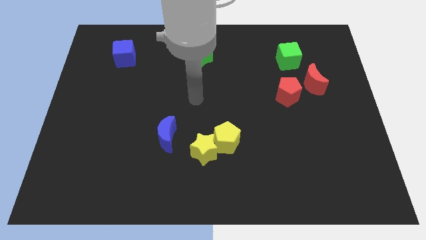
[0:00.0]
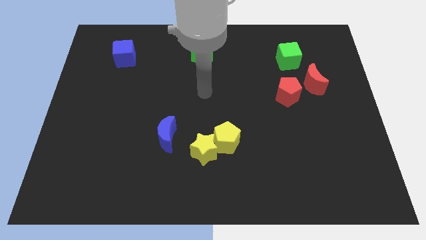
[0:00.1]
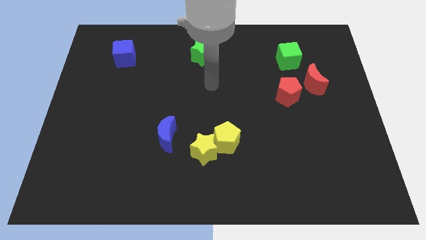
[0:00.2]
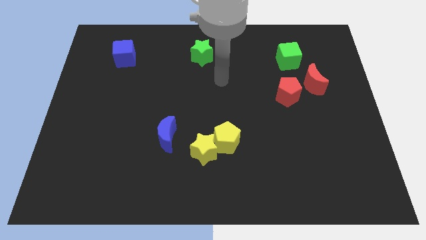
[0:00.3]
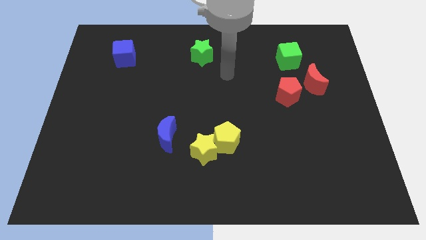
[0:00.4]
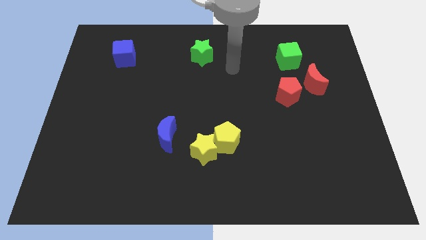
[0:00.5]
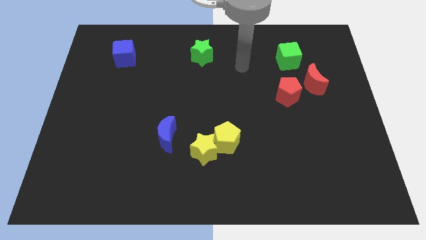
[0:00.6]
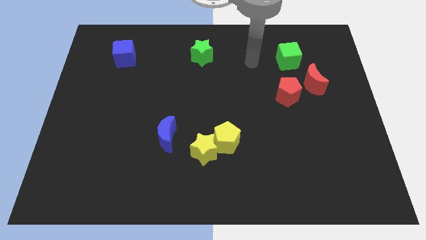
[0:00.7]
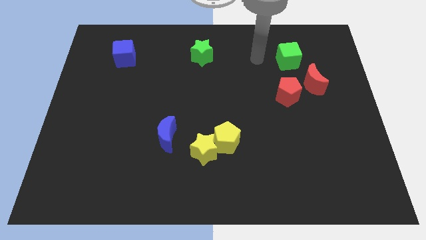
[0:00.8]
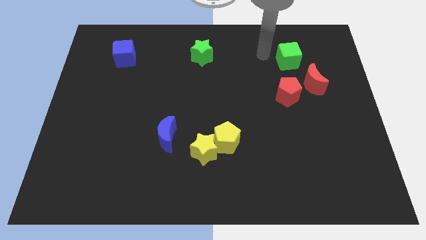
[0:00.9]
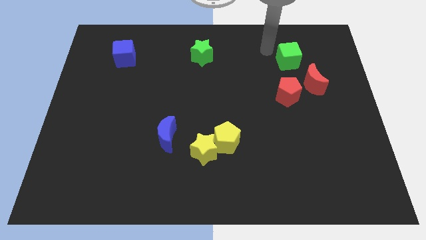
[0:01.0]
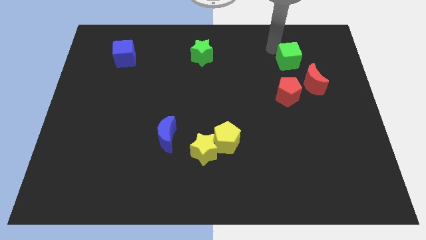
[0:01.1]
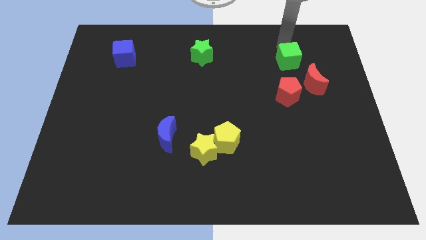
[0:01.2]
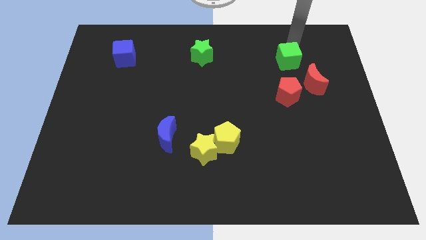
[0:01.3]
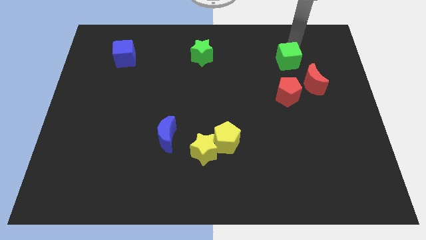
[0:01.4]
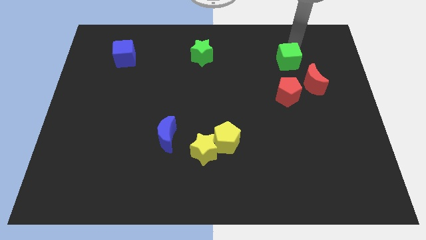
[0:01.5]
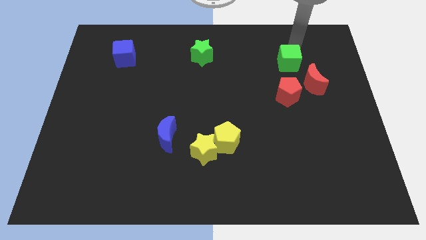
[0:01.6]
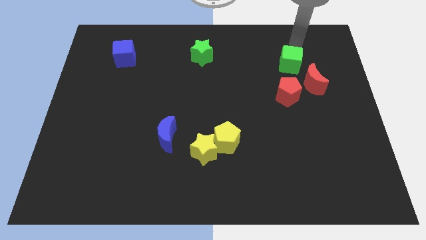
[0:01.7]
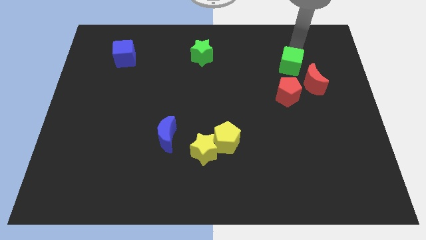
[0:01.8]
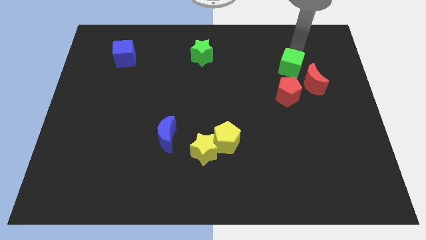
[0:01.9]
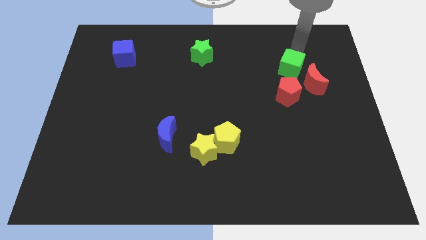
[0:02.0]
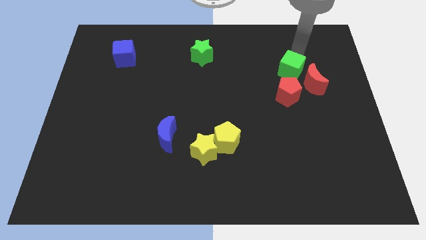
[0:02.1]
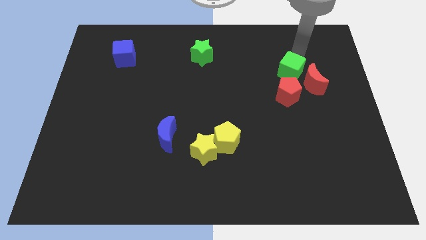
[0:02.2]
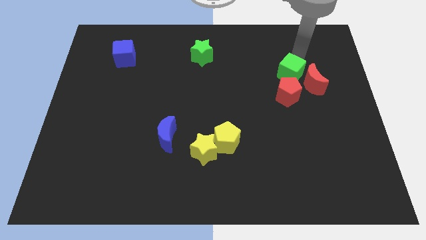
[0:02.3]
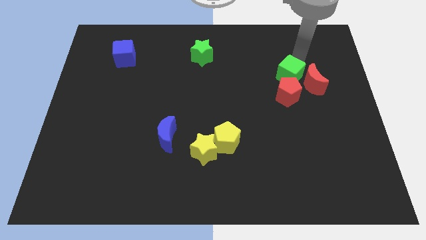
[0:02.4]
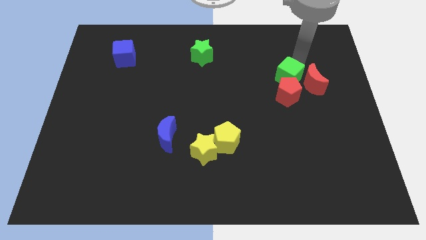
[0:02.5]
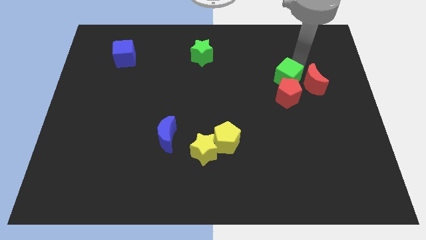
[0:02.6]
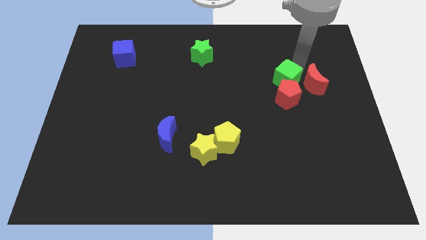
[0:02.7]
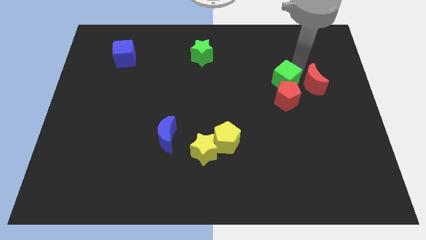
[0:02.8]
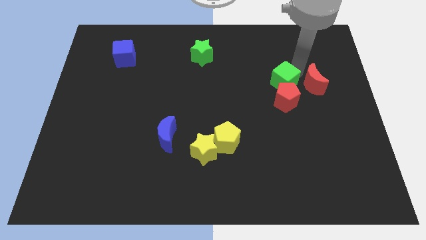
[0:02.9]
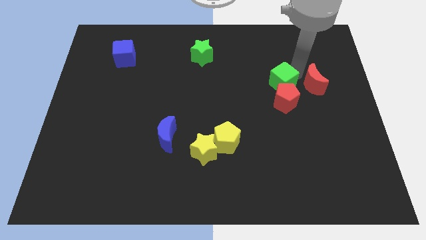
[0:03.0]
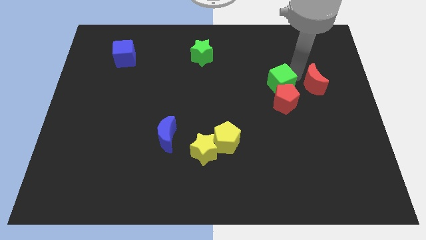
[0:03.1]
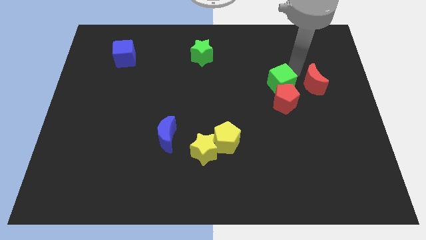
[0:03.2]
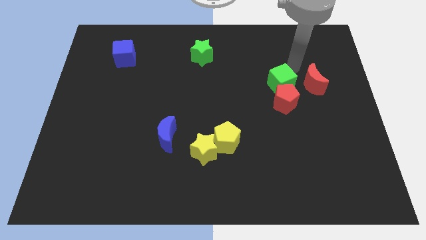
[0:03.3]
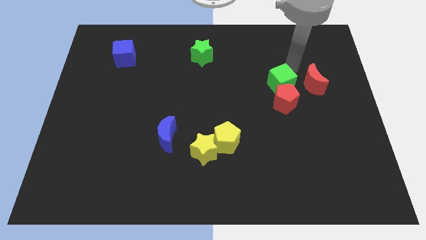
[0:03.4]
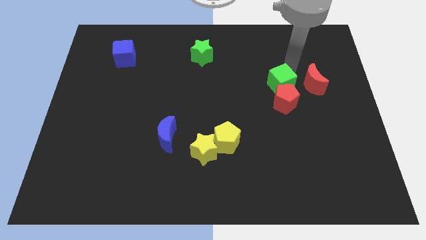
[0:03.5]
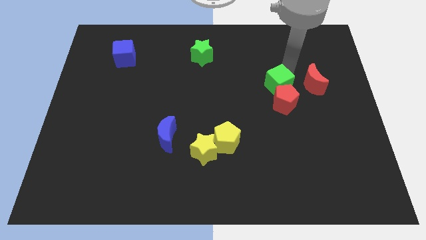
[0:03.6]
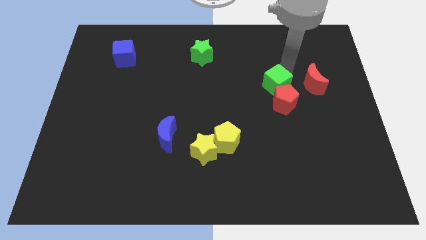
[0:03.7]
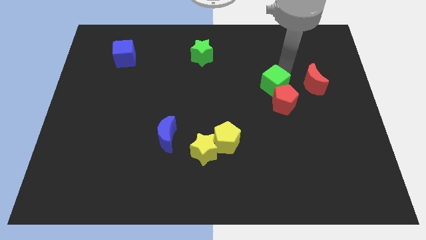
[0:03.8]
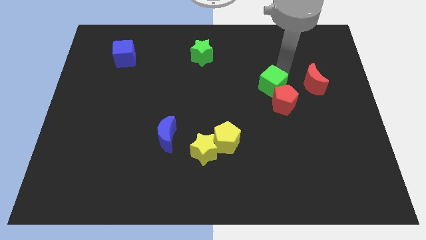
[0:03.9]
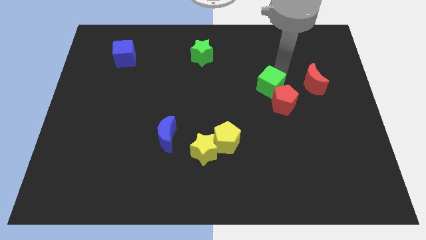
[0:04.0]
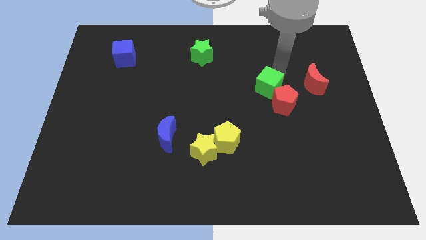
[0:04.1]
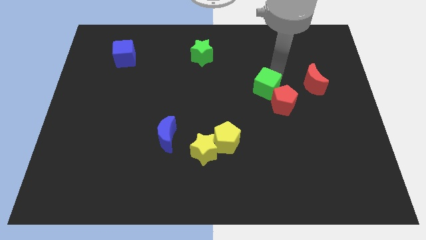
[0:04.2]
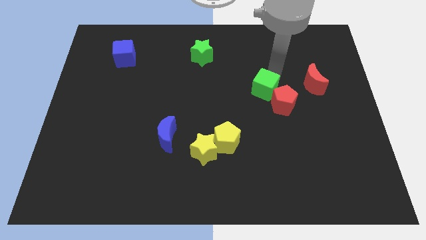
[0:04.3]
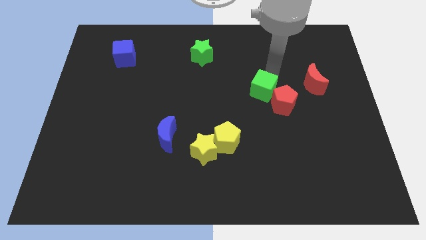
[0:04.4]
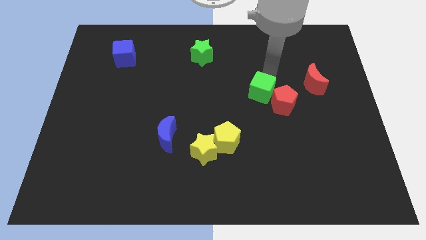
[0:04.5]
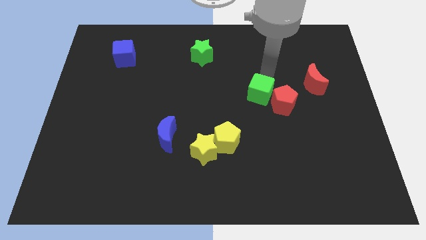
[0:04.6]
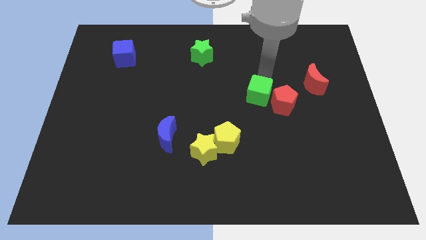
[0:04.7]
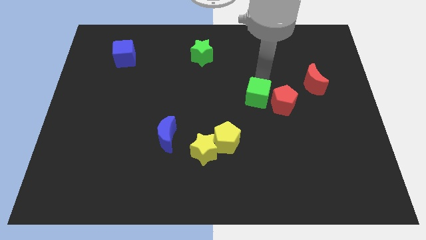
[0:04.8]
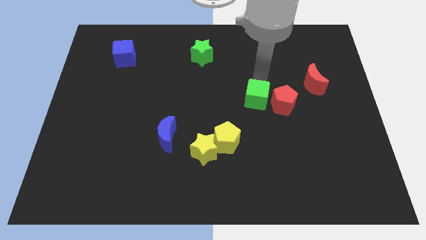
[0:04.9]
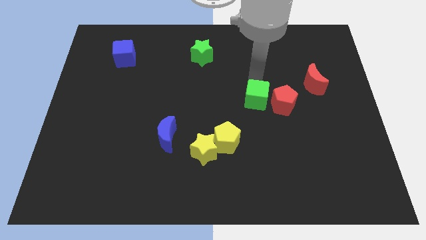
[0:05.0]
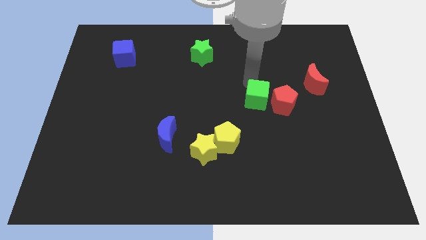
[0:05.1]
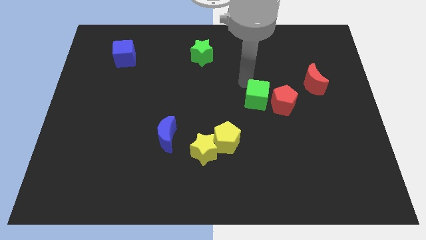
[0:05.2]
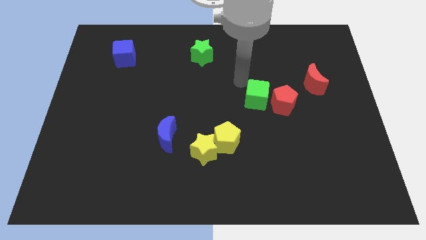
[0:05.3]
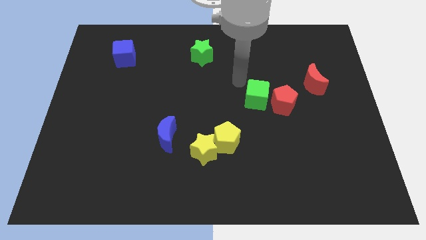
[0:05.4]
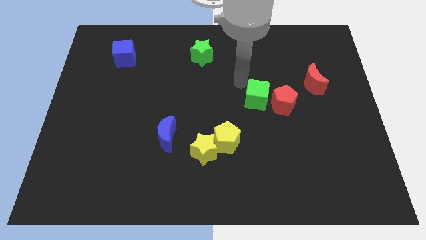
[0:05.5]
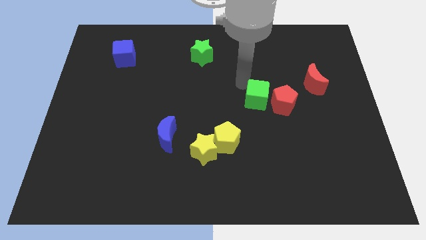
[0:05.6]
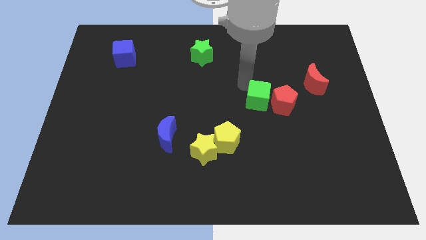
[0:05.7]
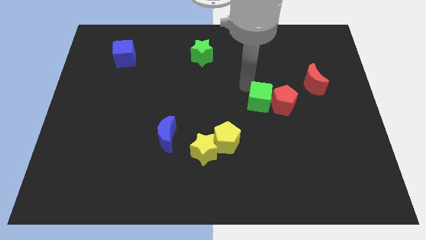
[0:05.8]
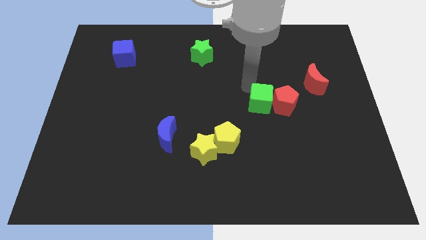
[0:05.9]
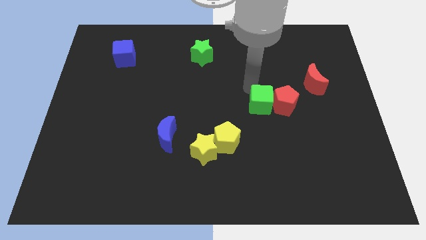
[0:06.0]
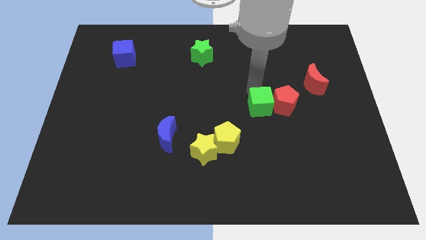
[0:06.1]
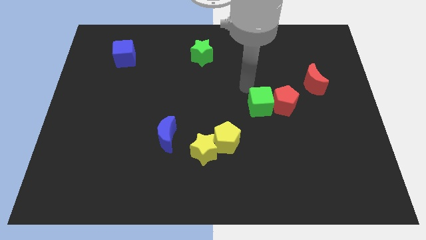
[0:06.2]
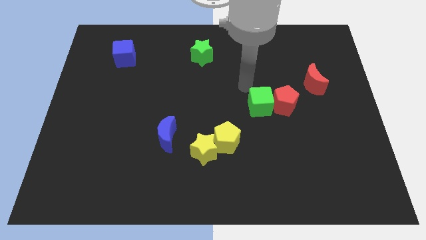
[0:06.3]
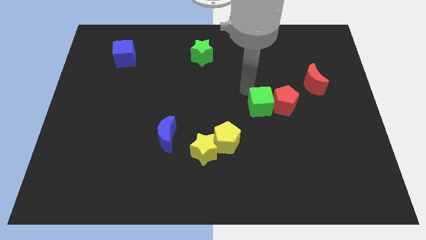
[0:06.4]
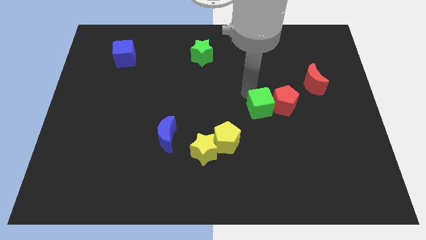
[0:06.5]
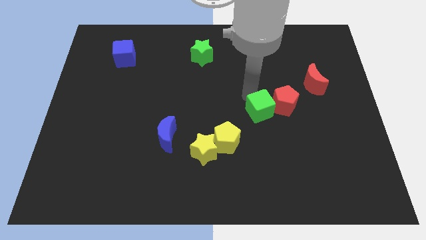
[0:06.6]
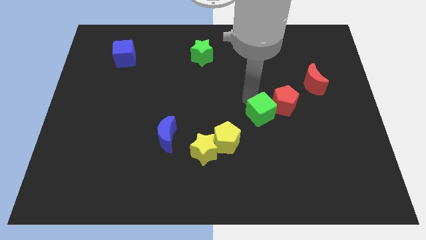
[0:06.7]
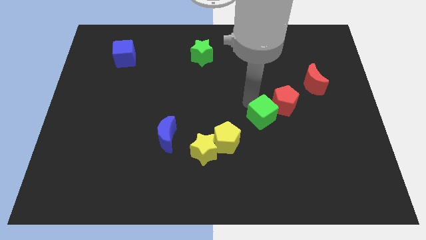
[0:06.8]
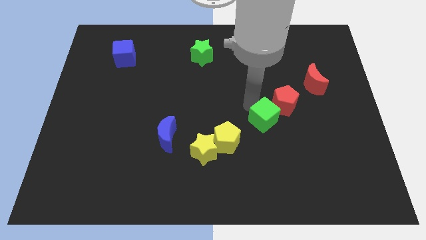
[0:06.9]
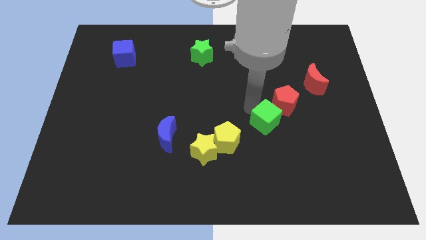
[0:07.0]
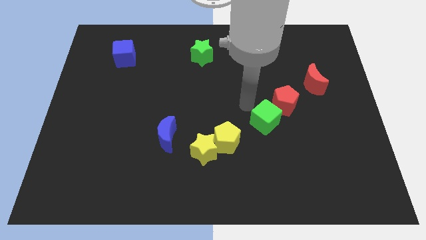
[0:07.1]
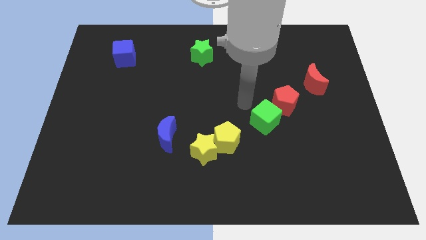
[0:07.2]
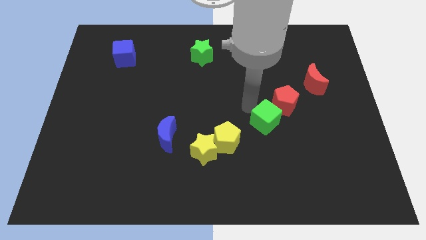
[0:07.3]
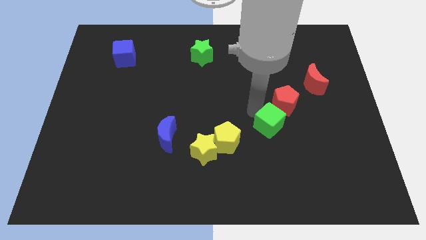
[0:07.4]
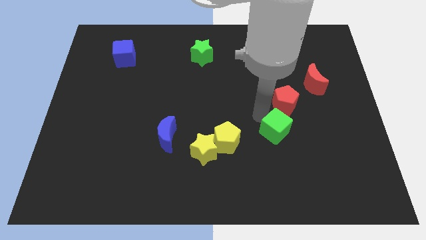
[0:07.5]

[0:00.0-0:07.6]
move the green cube down

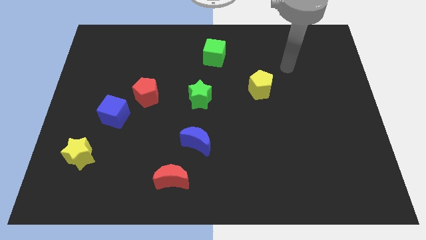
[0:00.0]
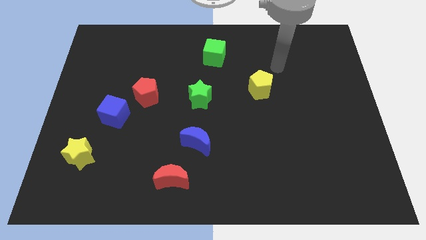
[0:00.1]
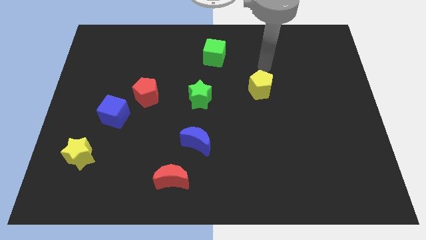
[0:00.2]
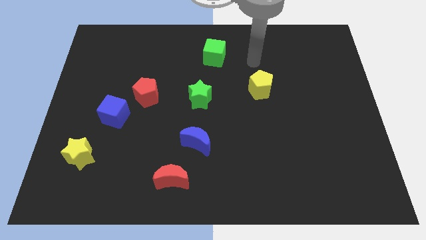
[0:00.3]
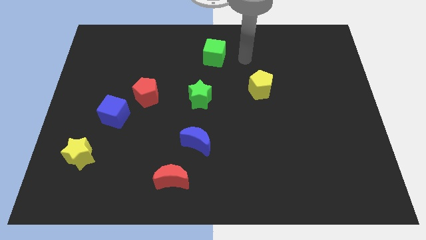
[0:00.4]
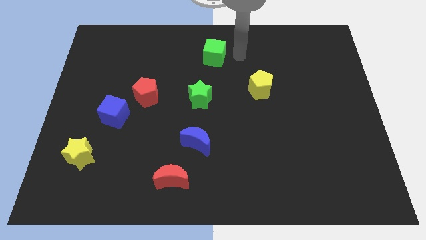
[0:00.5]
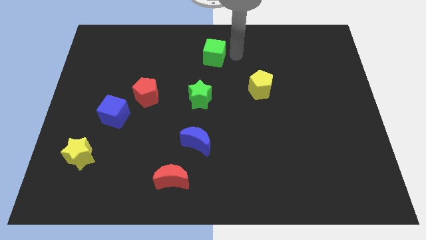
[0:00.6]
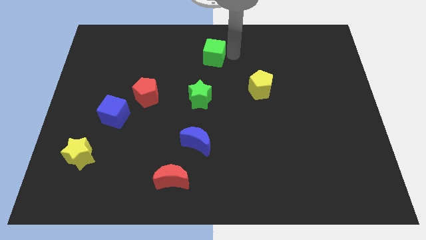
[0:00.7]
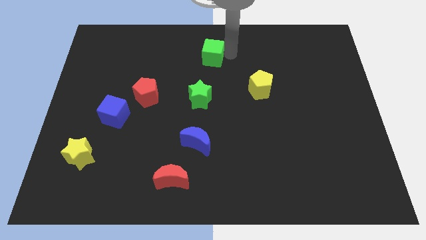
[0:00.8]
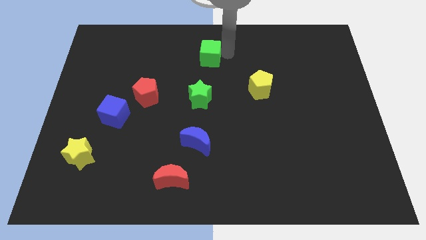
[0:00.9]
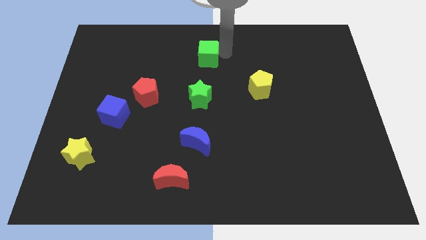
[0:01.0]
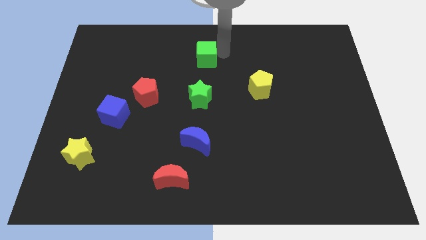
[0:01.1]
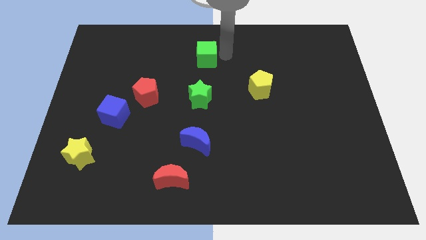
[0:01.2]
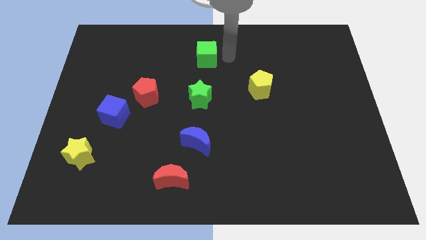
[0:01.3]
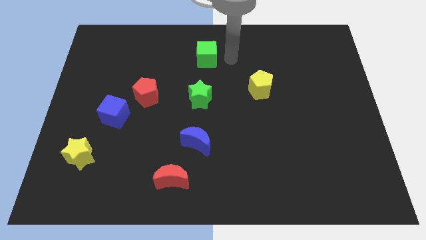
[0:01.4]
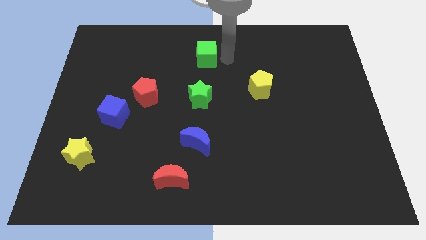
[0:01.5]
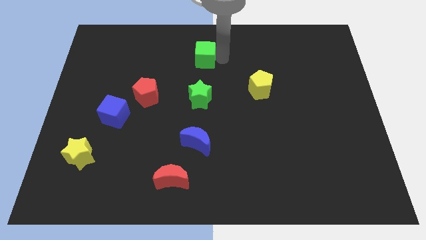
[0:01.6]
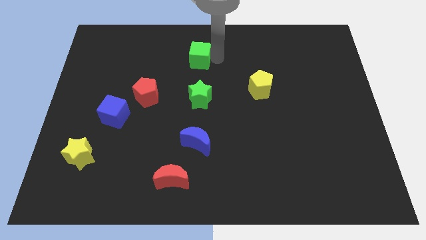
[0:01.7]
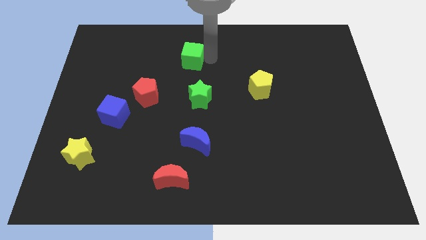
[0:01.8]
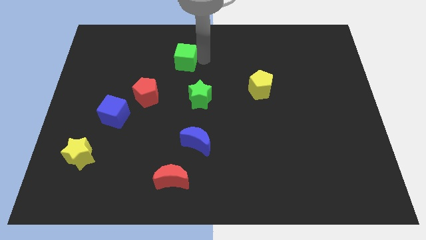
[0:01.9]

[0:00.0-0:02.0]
move the green cube to the left a little bit
